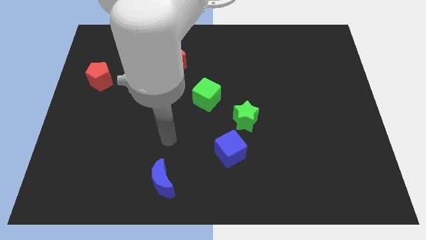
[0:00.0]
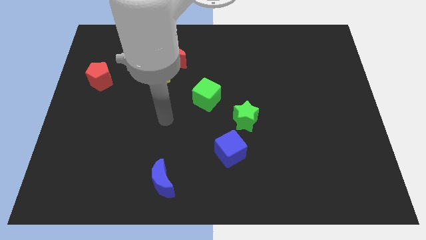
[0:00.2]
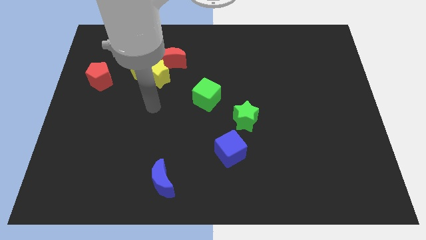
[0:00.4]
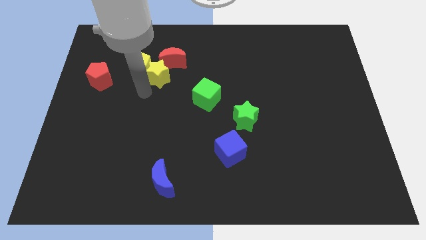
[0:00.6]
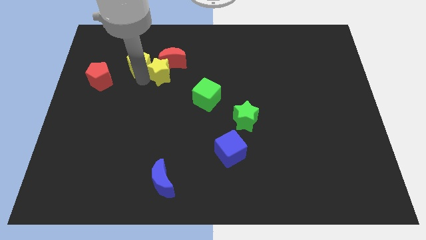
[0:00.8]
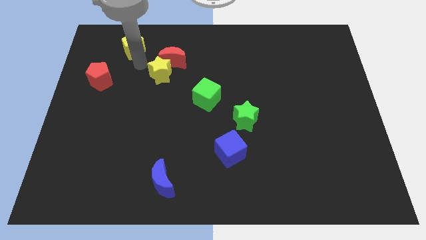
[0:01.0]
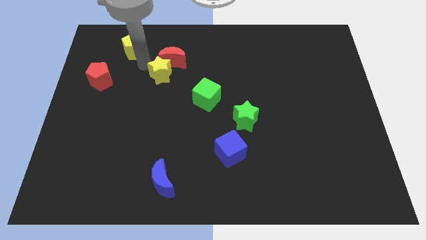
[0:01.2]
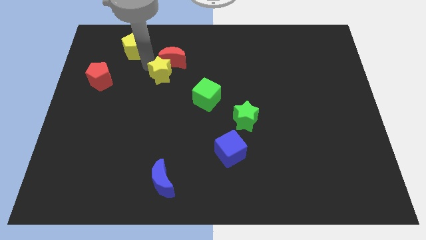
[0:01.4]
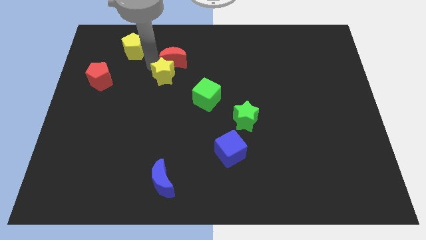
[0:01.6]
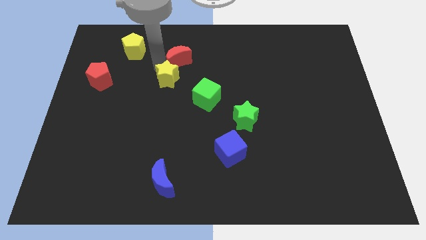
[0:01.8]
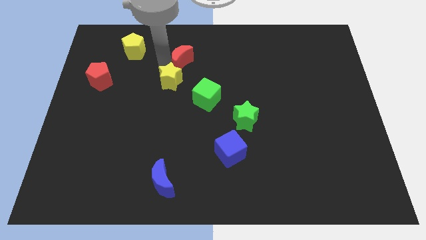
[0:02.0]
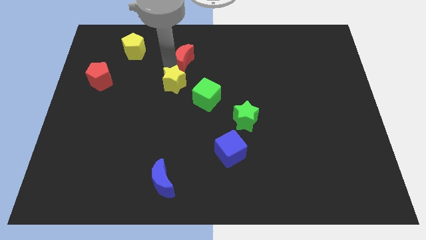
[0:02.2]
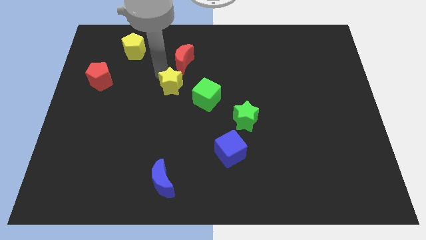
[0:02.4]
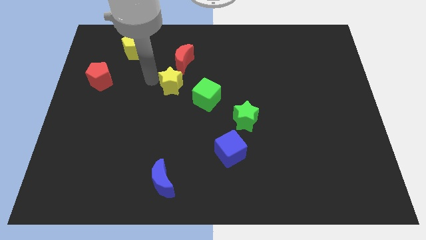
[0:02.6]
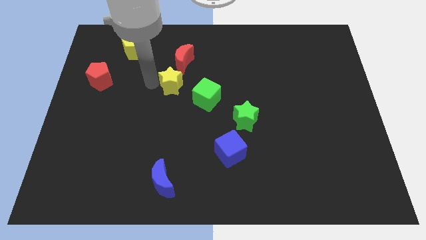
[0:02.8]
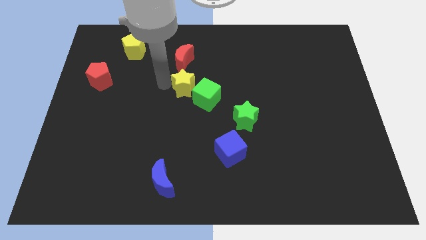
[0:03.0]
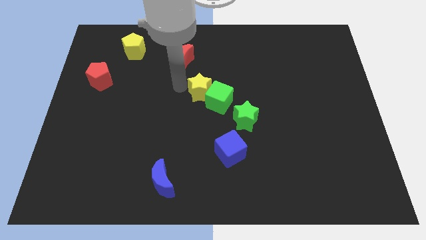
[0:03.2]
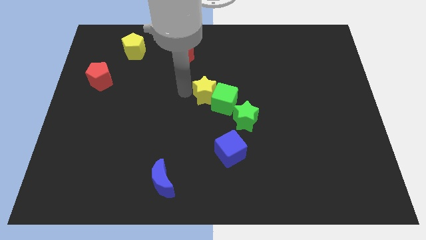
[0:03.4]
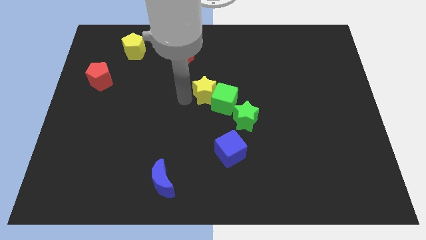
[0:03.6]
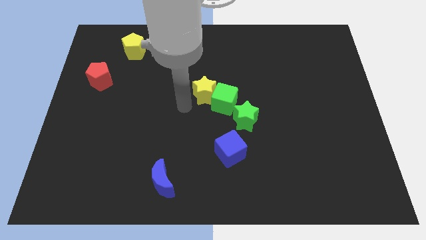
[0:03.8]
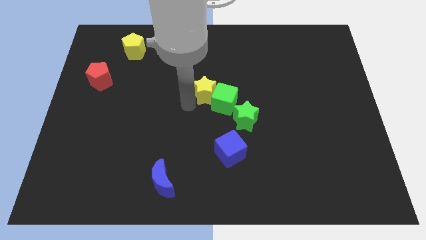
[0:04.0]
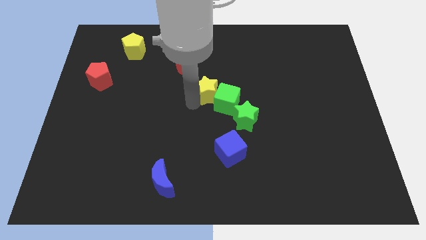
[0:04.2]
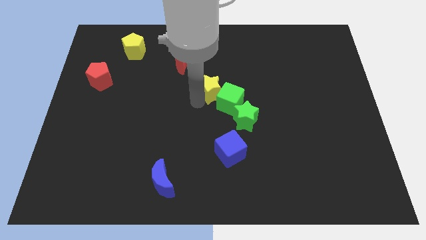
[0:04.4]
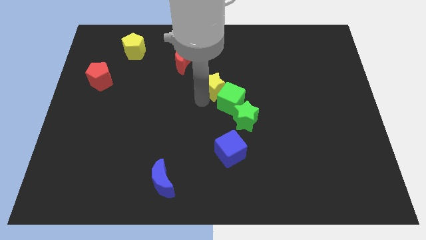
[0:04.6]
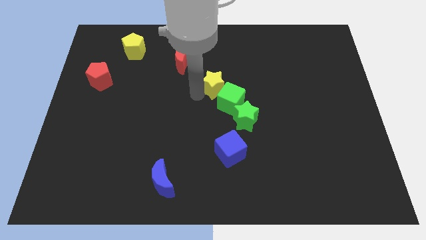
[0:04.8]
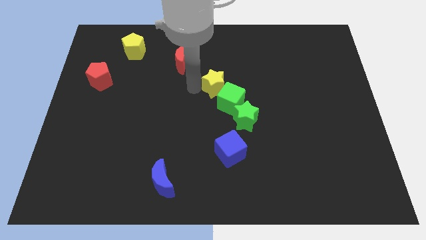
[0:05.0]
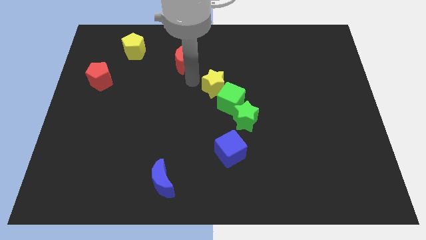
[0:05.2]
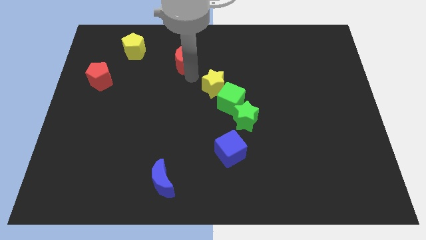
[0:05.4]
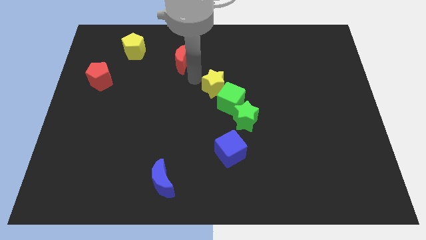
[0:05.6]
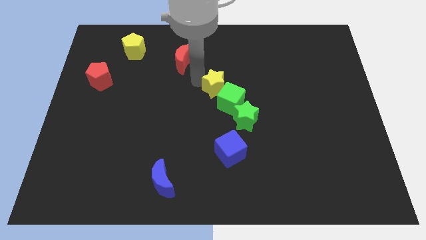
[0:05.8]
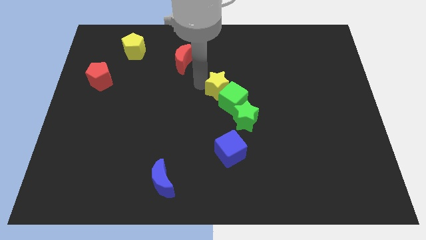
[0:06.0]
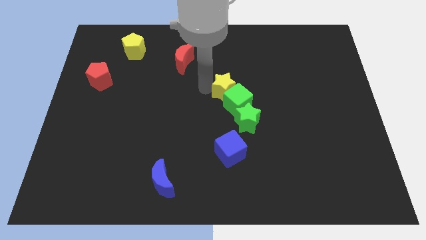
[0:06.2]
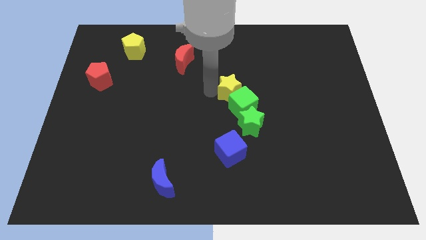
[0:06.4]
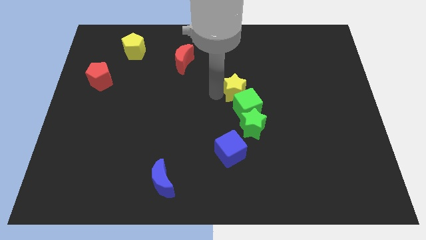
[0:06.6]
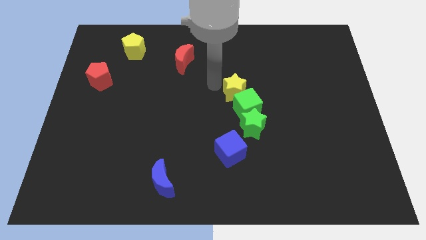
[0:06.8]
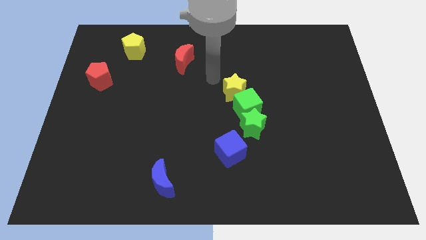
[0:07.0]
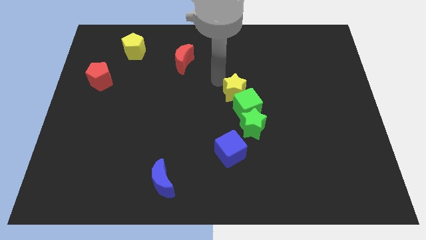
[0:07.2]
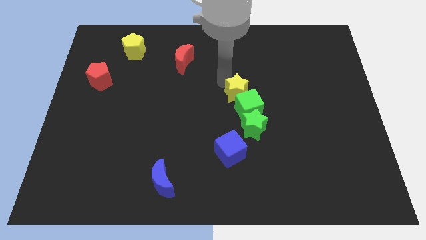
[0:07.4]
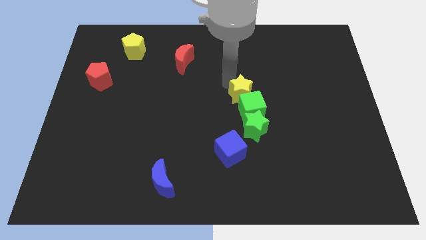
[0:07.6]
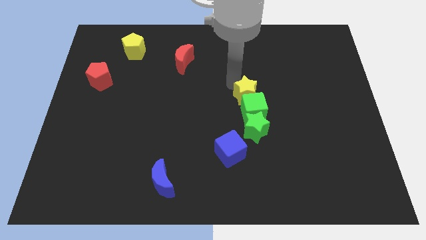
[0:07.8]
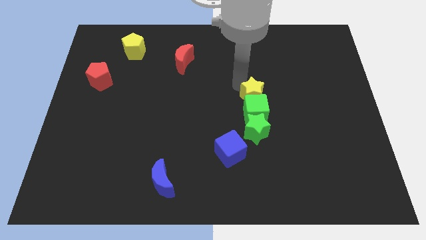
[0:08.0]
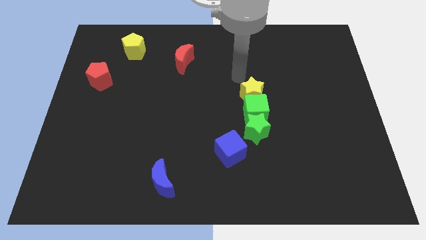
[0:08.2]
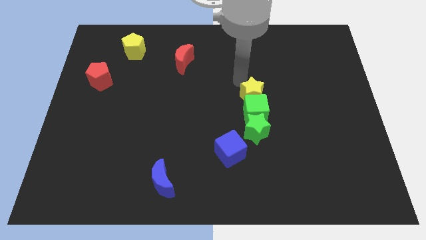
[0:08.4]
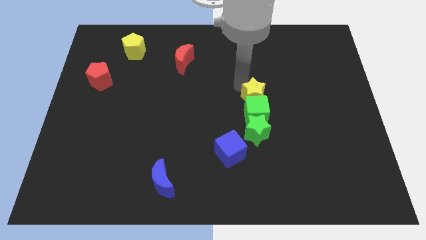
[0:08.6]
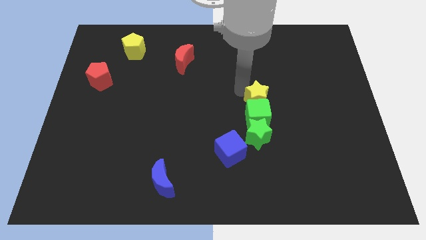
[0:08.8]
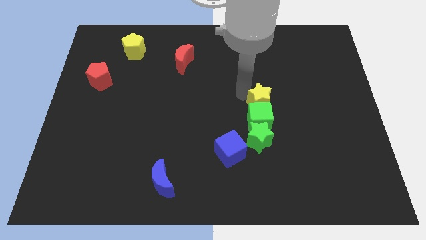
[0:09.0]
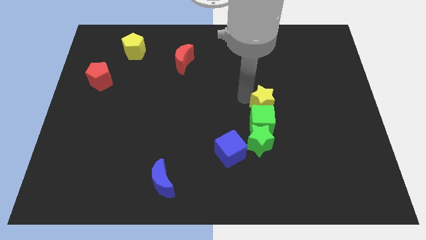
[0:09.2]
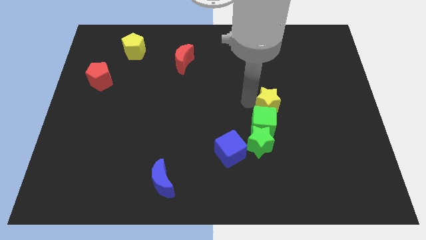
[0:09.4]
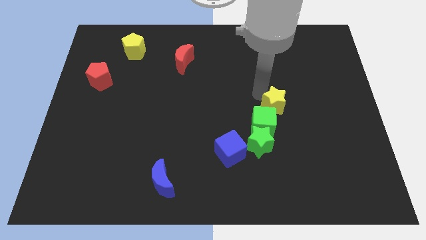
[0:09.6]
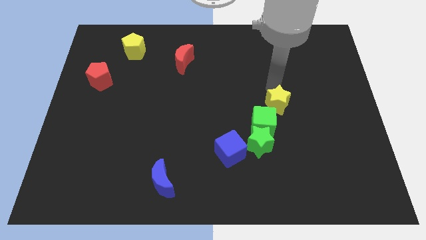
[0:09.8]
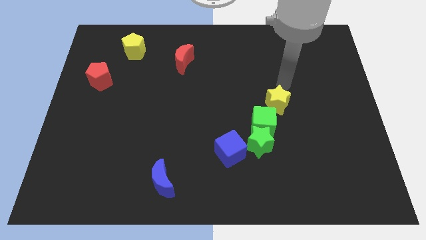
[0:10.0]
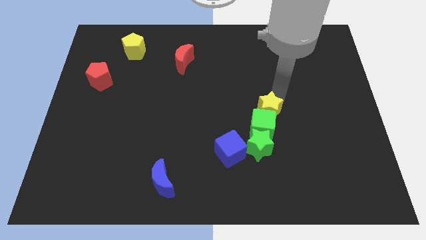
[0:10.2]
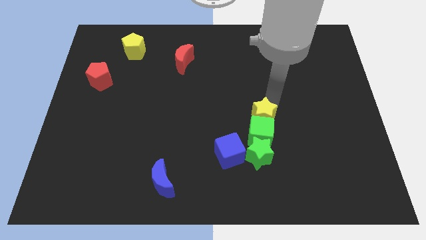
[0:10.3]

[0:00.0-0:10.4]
slide the yellow star down and then to the right

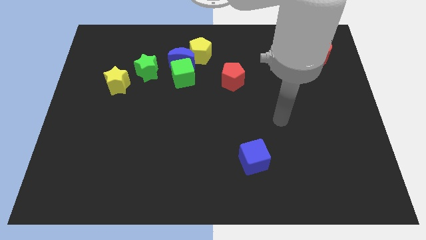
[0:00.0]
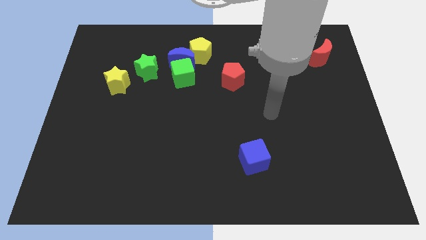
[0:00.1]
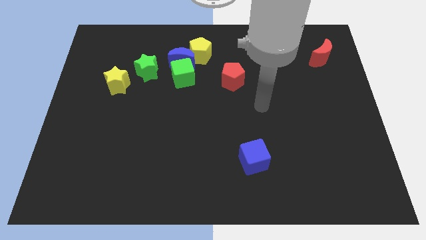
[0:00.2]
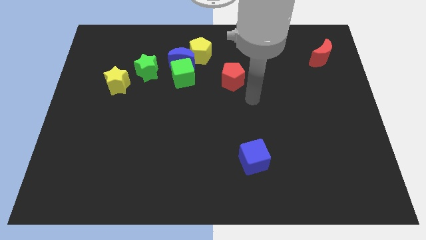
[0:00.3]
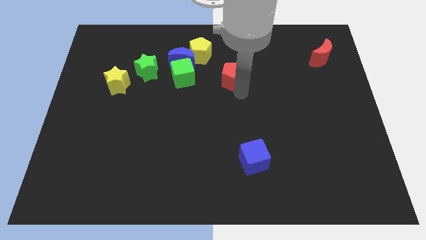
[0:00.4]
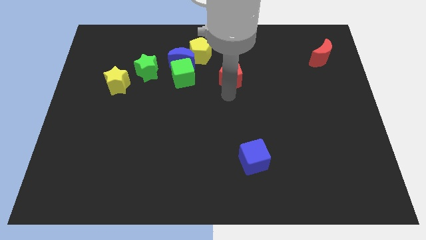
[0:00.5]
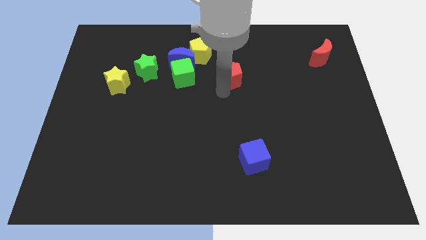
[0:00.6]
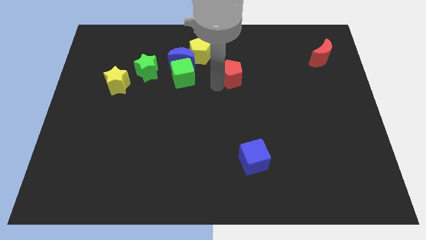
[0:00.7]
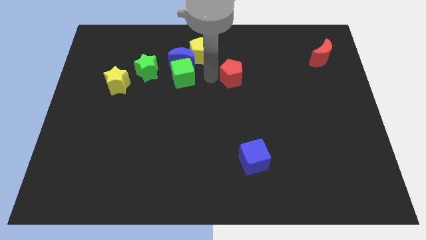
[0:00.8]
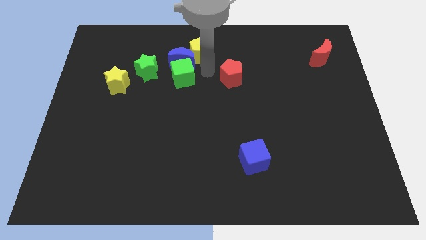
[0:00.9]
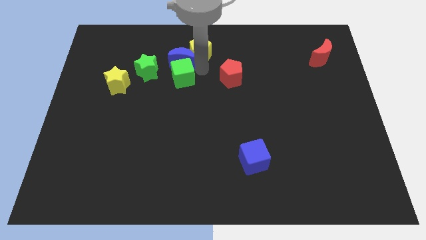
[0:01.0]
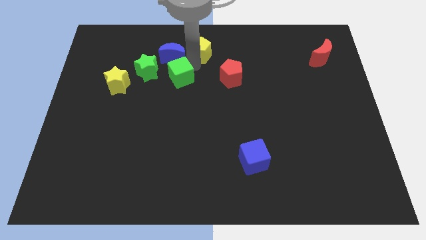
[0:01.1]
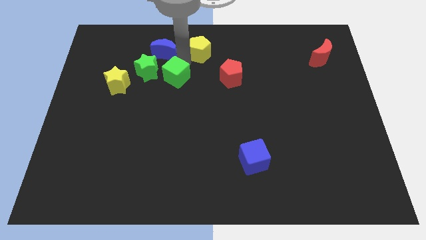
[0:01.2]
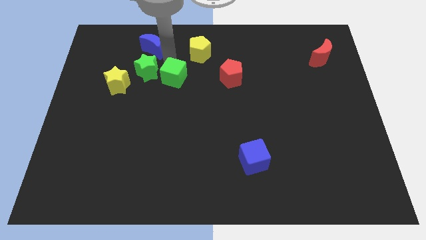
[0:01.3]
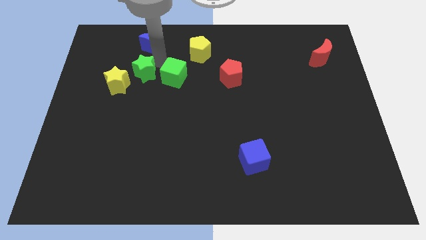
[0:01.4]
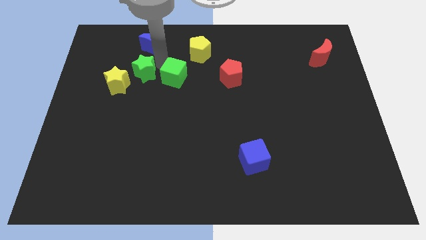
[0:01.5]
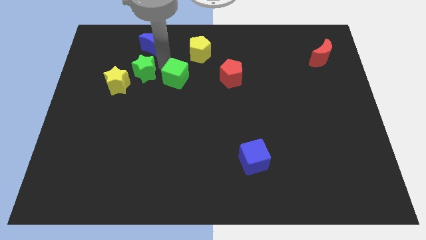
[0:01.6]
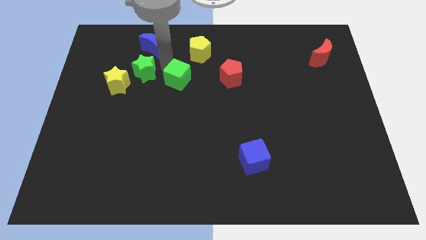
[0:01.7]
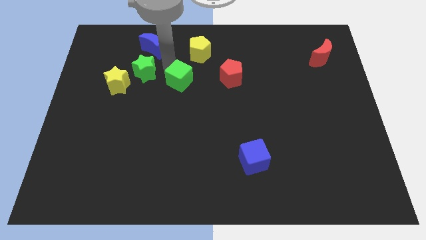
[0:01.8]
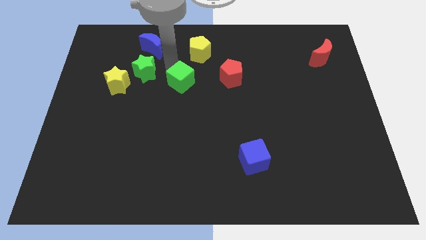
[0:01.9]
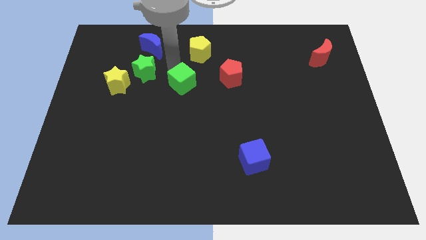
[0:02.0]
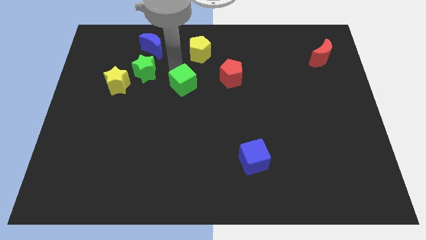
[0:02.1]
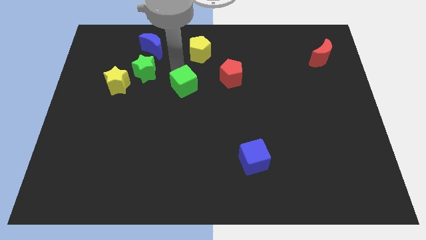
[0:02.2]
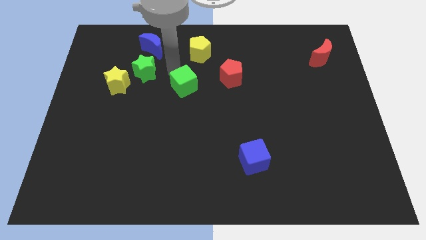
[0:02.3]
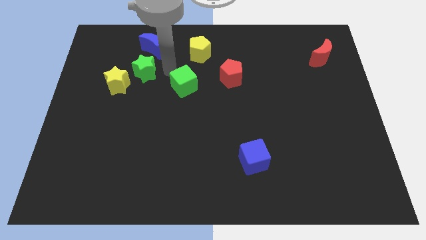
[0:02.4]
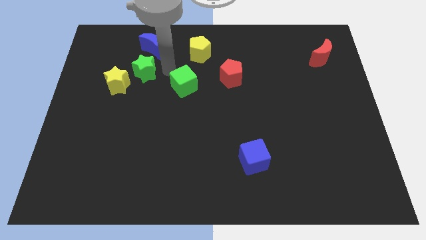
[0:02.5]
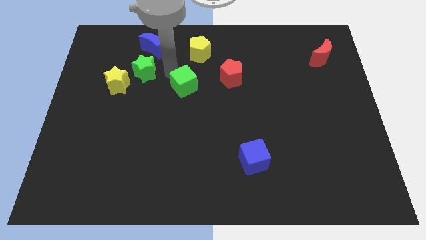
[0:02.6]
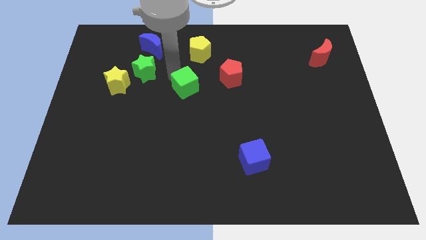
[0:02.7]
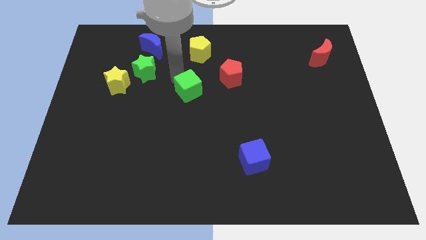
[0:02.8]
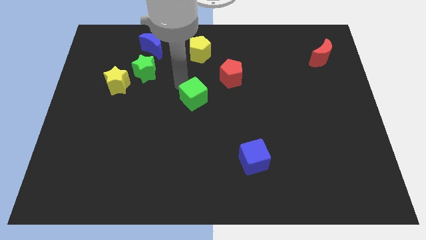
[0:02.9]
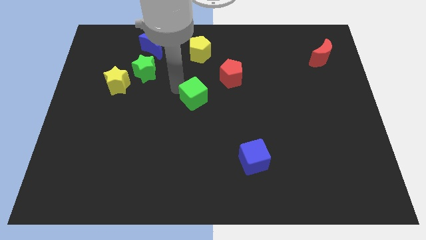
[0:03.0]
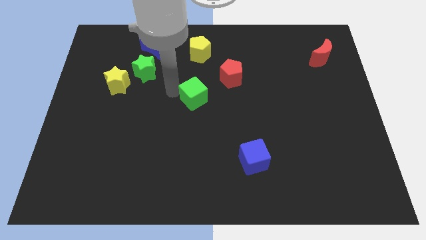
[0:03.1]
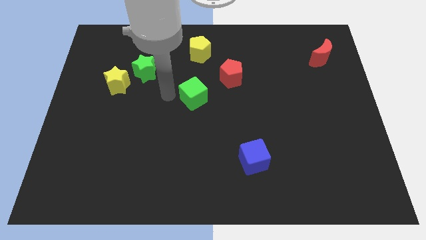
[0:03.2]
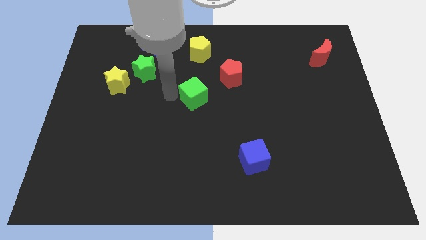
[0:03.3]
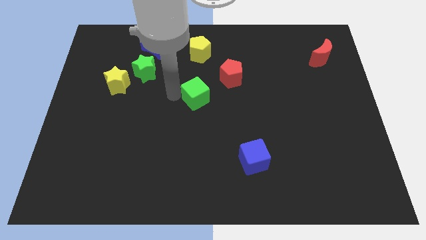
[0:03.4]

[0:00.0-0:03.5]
slightly move the green cube diagonally downwards and right
